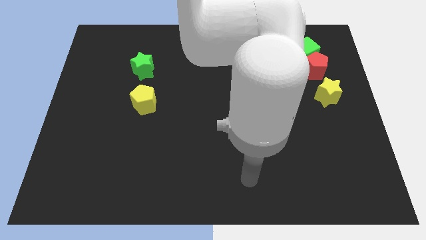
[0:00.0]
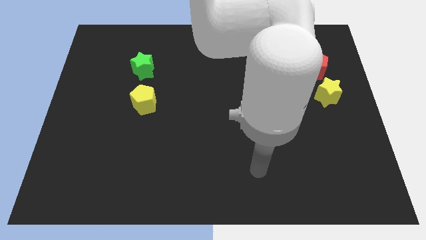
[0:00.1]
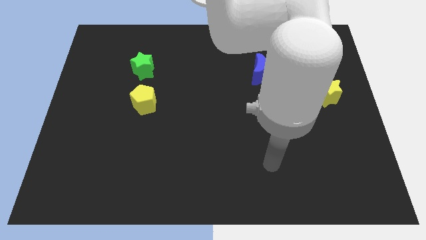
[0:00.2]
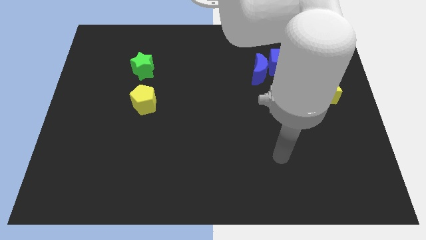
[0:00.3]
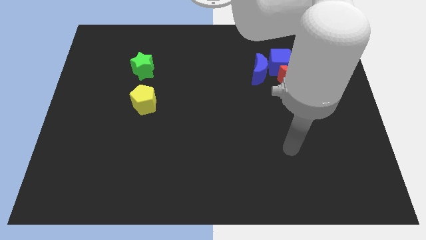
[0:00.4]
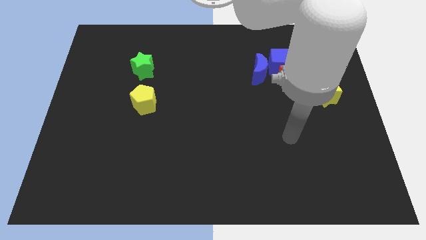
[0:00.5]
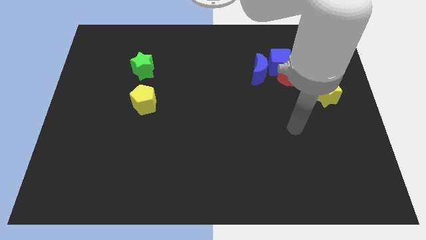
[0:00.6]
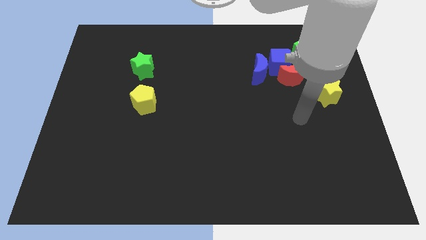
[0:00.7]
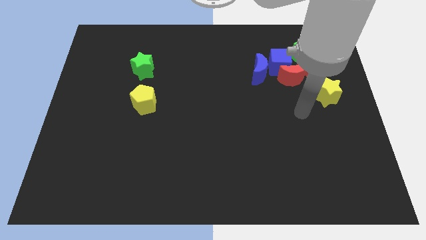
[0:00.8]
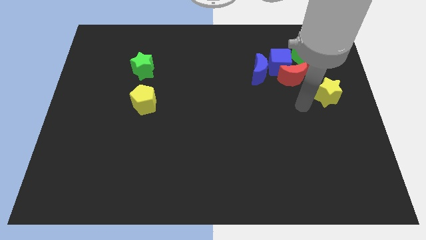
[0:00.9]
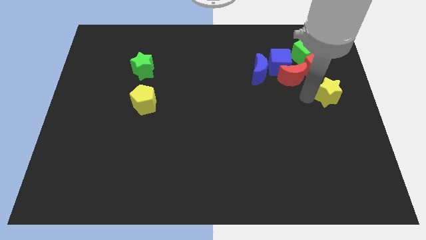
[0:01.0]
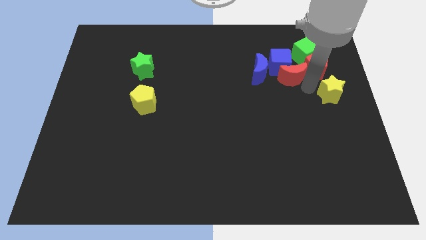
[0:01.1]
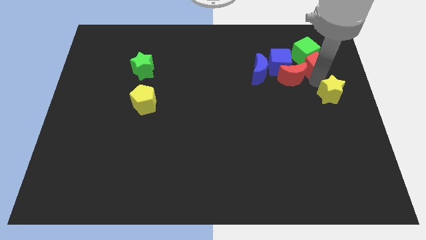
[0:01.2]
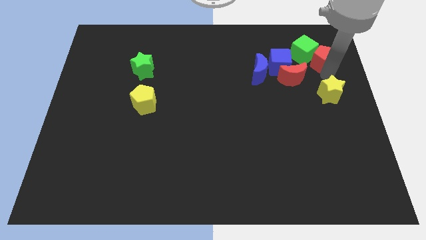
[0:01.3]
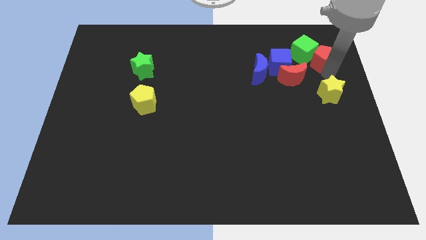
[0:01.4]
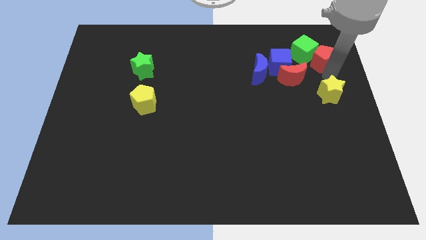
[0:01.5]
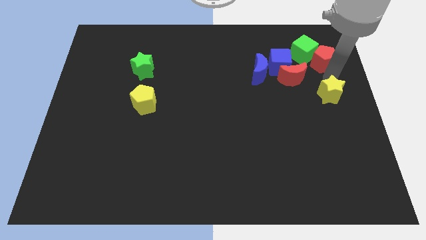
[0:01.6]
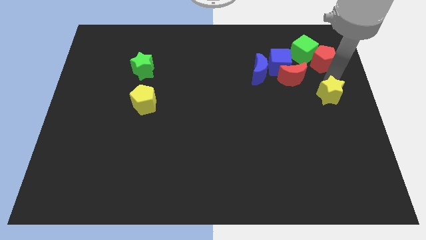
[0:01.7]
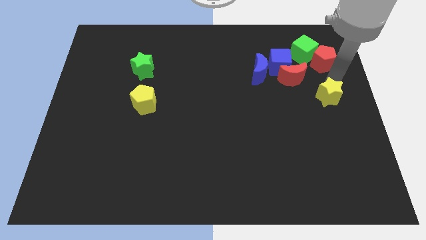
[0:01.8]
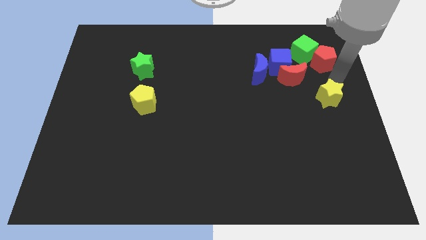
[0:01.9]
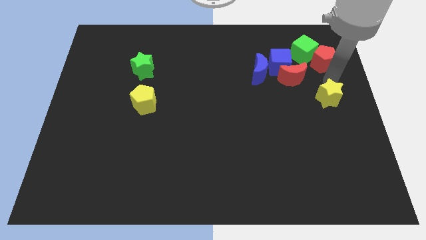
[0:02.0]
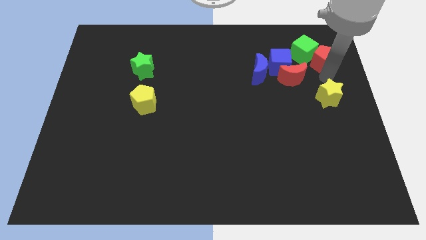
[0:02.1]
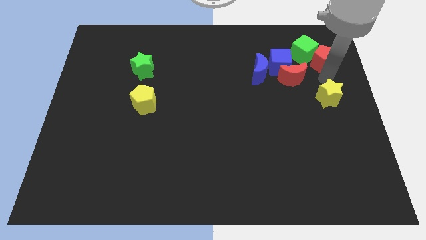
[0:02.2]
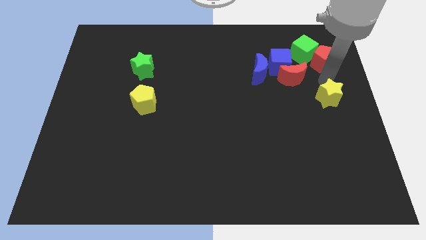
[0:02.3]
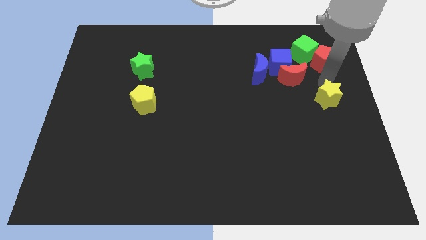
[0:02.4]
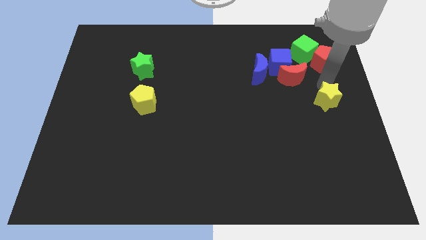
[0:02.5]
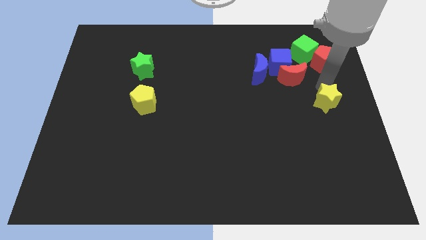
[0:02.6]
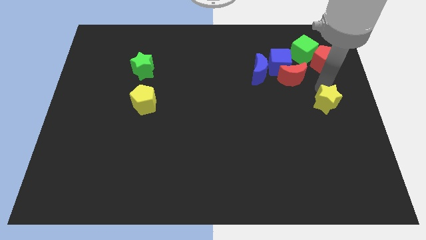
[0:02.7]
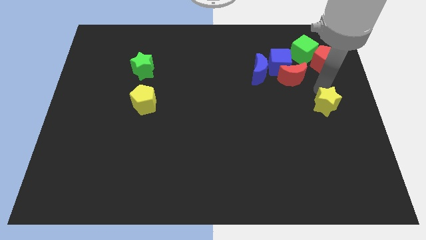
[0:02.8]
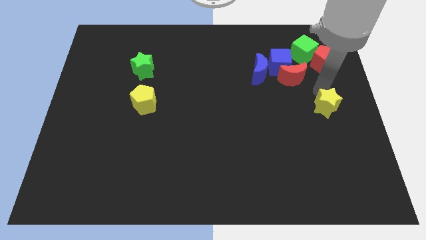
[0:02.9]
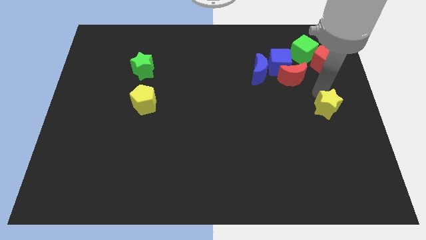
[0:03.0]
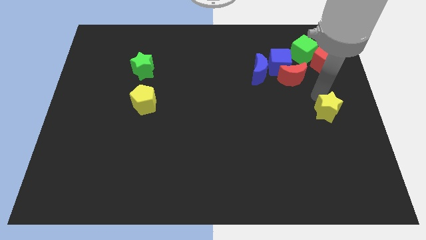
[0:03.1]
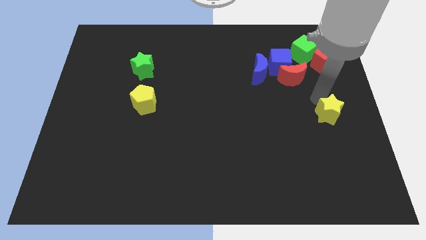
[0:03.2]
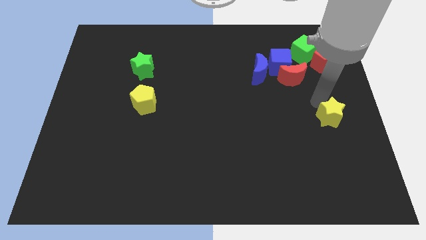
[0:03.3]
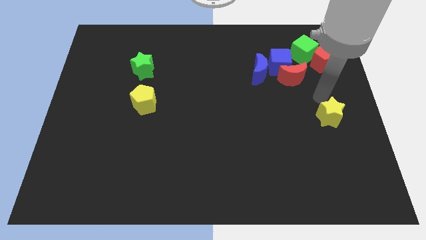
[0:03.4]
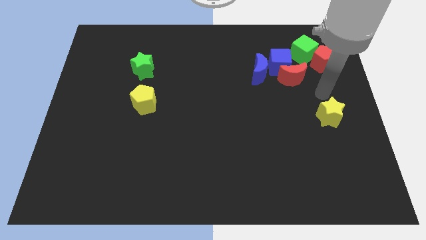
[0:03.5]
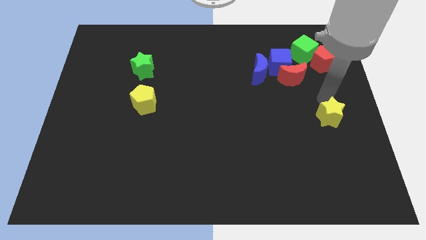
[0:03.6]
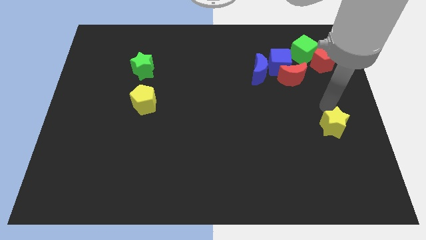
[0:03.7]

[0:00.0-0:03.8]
slide the yellow star a little bit downwards

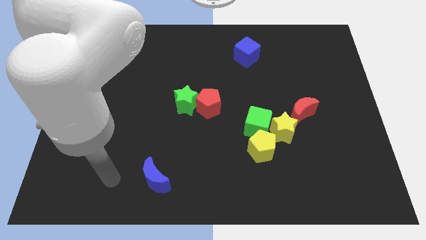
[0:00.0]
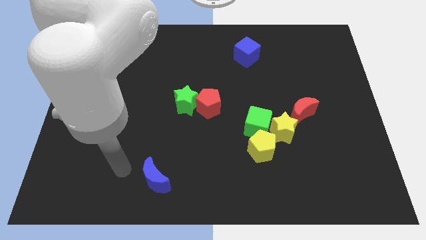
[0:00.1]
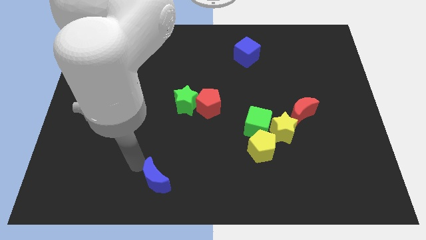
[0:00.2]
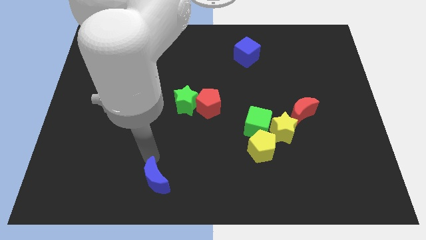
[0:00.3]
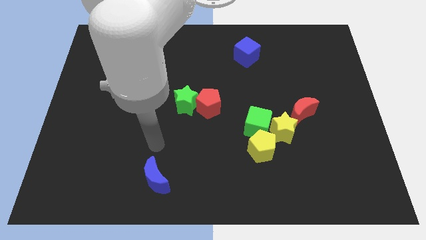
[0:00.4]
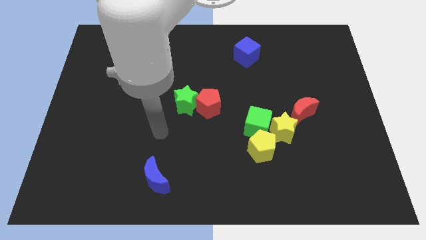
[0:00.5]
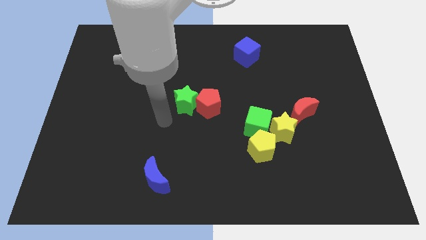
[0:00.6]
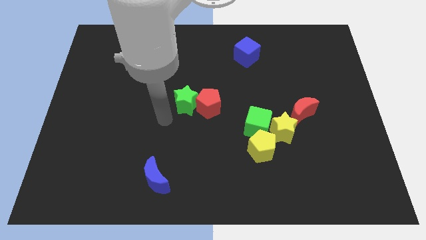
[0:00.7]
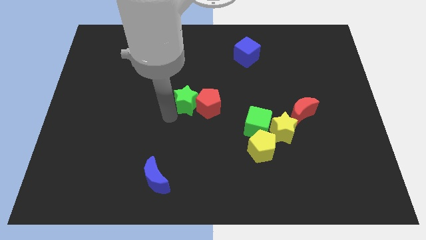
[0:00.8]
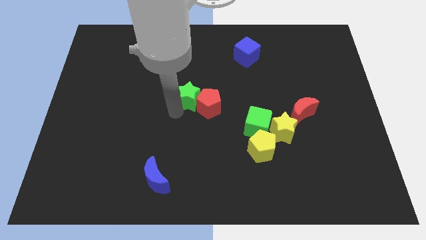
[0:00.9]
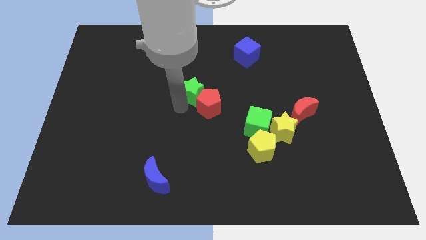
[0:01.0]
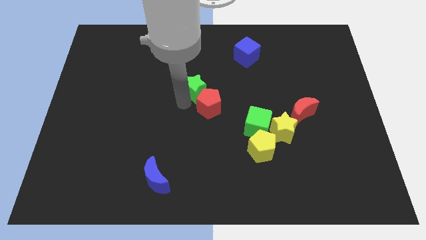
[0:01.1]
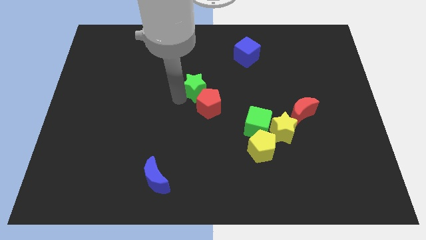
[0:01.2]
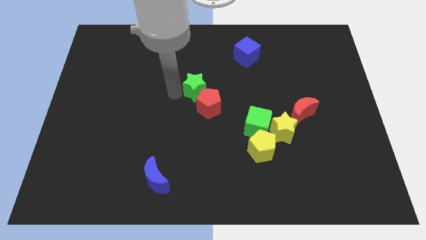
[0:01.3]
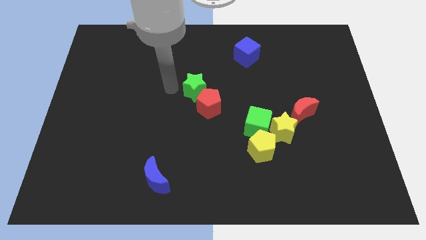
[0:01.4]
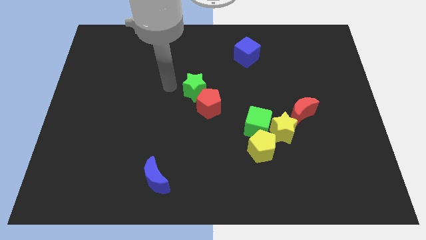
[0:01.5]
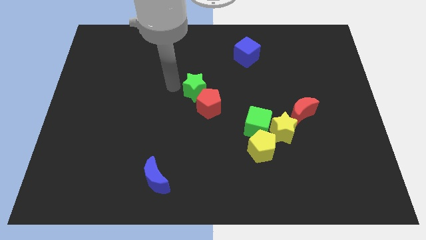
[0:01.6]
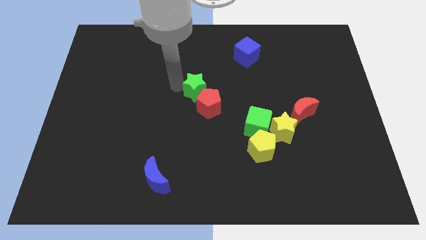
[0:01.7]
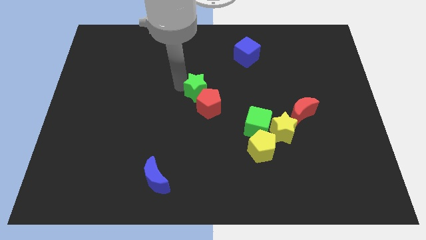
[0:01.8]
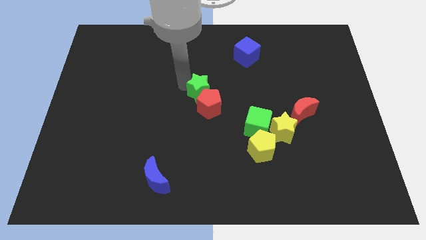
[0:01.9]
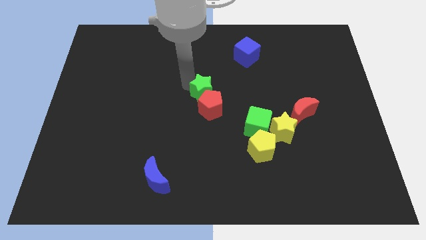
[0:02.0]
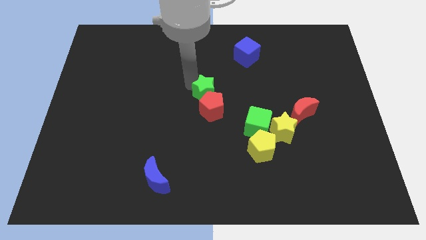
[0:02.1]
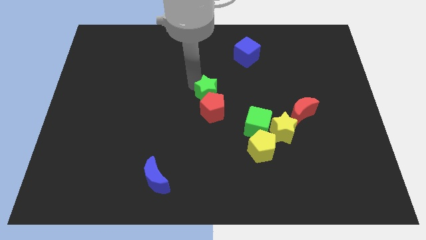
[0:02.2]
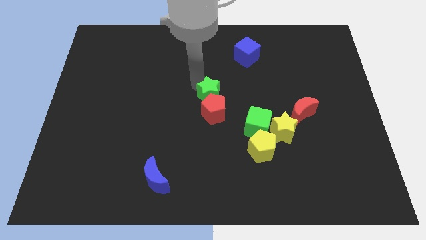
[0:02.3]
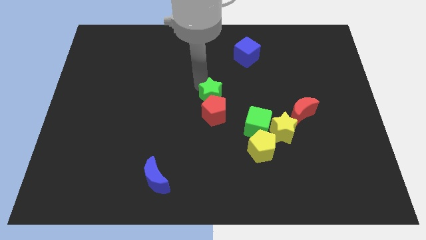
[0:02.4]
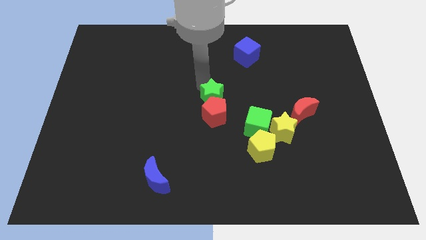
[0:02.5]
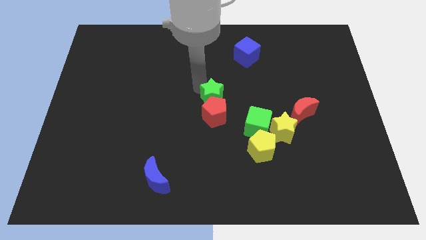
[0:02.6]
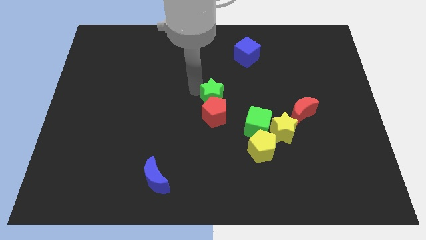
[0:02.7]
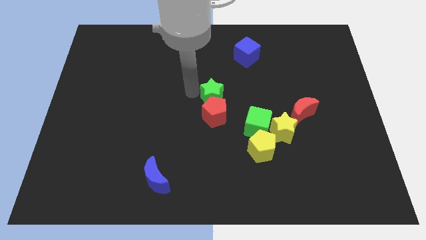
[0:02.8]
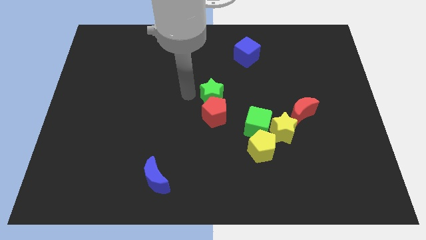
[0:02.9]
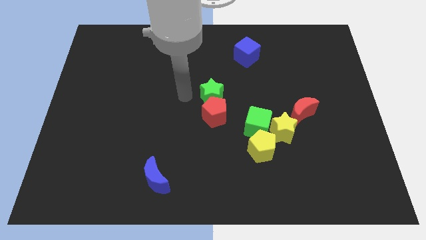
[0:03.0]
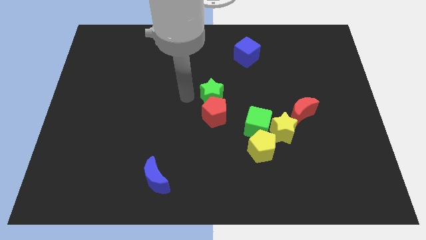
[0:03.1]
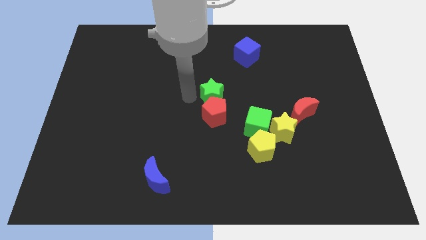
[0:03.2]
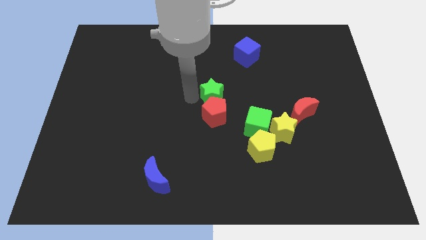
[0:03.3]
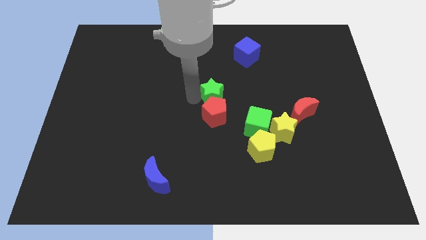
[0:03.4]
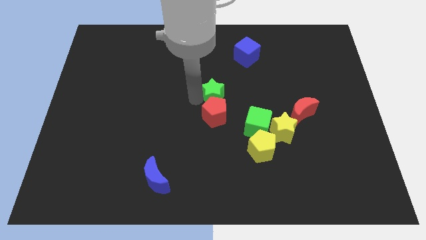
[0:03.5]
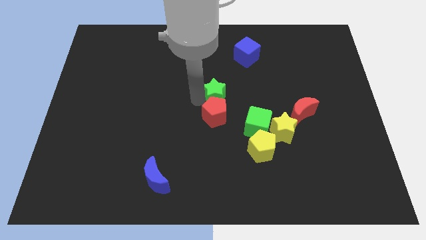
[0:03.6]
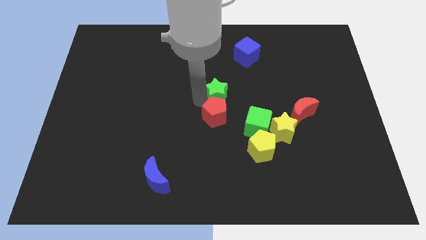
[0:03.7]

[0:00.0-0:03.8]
push the green star slightly to the right
